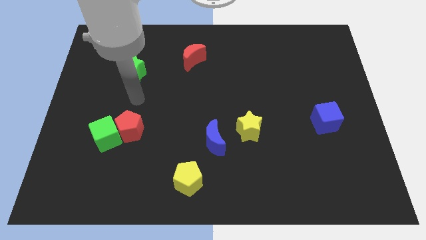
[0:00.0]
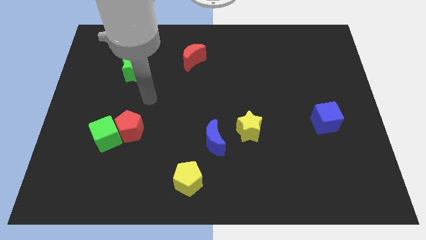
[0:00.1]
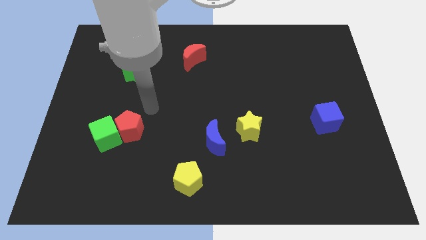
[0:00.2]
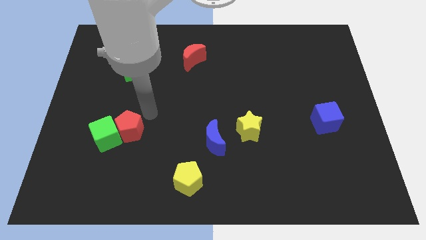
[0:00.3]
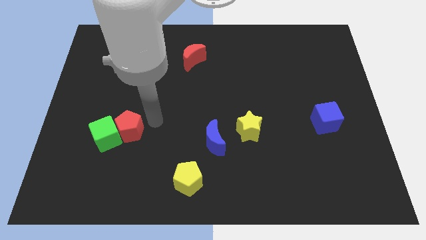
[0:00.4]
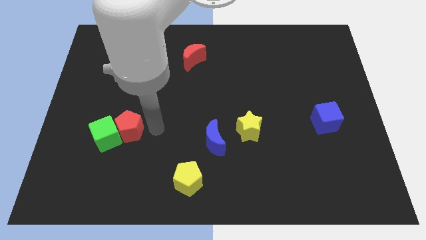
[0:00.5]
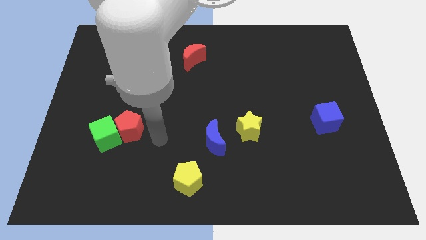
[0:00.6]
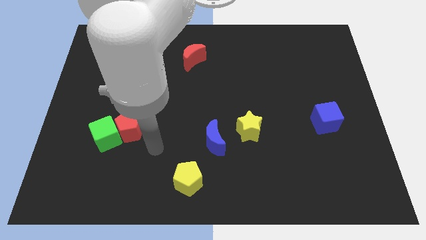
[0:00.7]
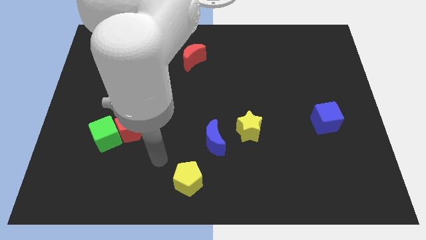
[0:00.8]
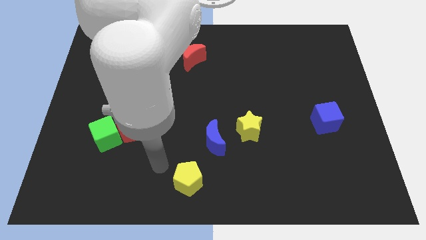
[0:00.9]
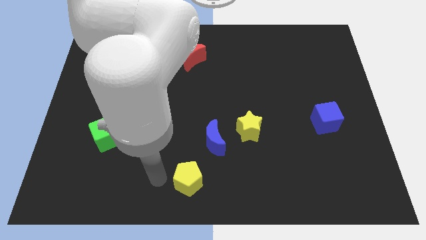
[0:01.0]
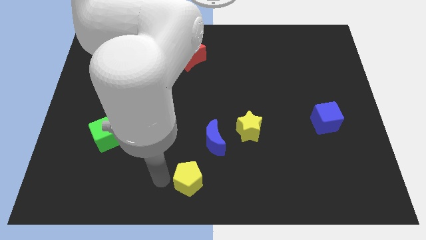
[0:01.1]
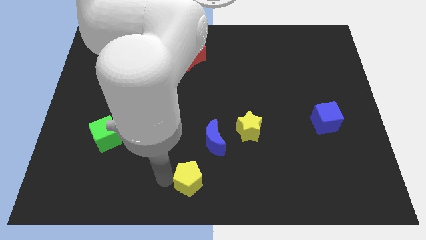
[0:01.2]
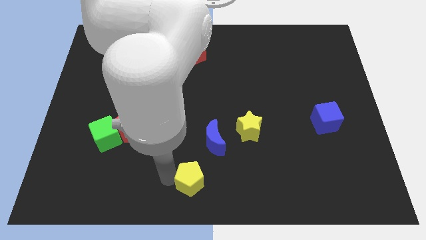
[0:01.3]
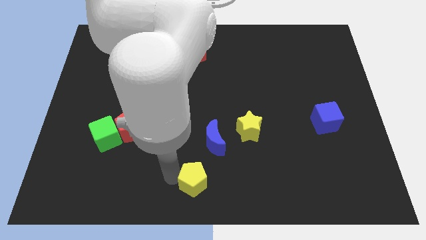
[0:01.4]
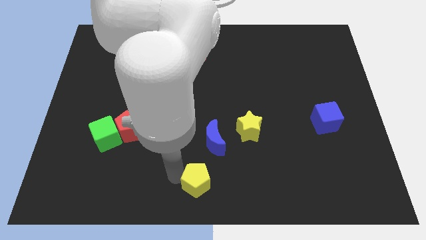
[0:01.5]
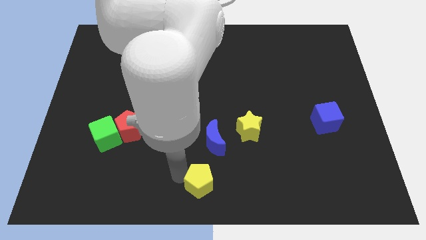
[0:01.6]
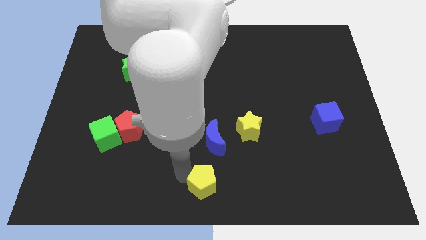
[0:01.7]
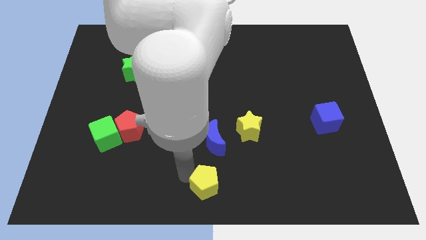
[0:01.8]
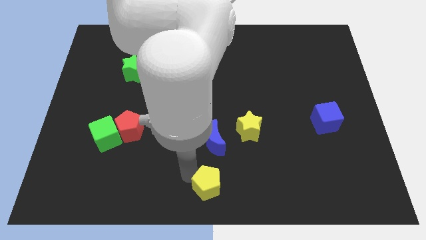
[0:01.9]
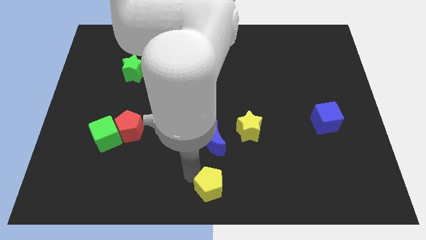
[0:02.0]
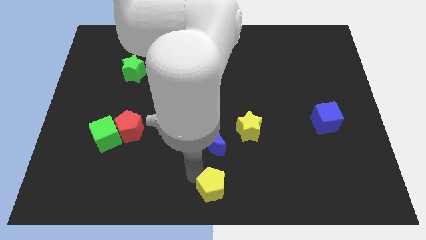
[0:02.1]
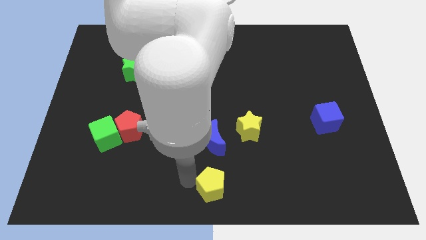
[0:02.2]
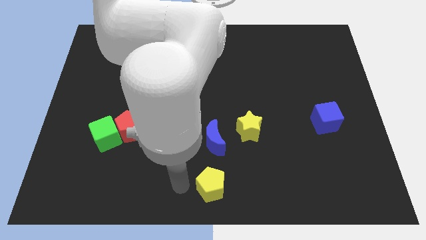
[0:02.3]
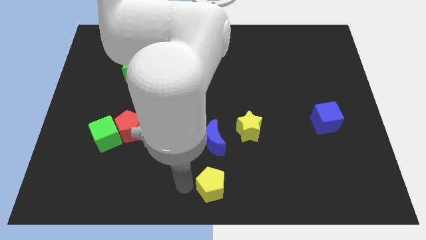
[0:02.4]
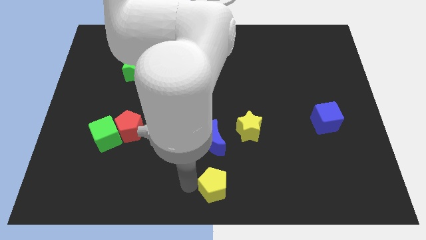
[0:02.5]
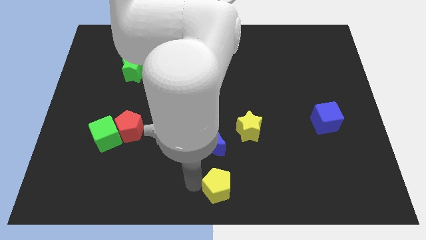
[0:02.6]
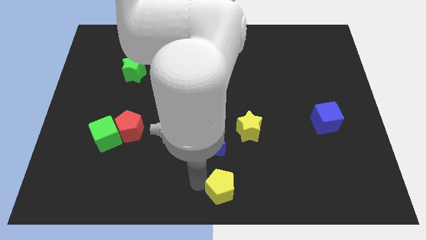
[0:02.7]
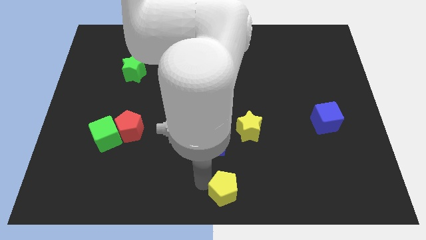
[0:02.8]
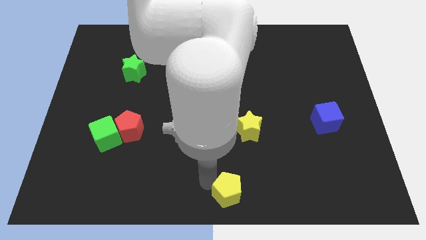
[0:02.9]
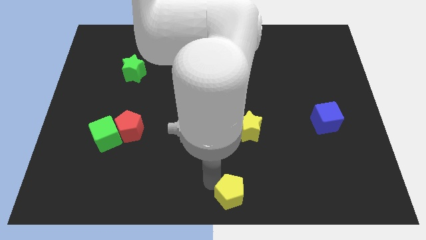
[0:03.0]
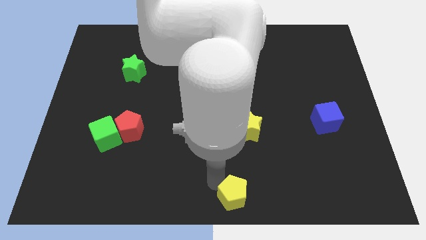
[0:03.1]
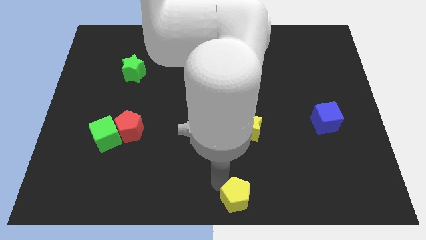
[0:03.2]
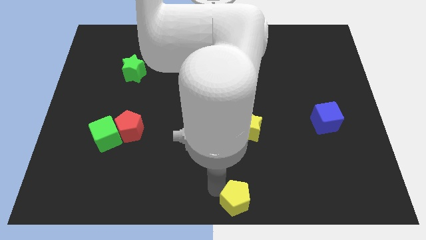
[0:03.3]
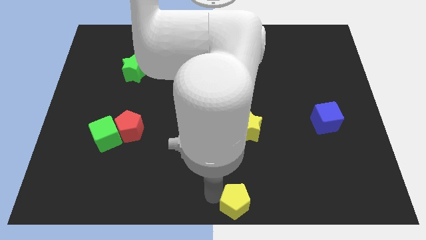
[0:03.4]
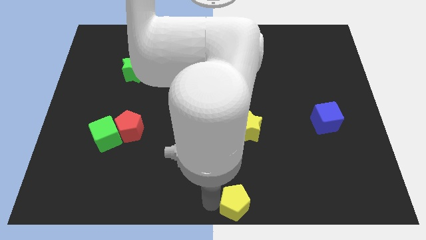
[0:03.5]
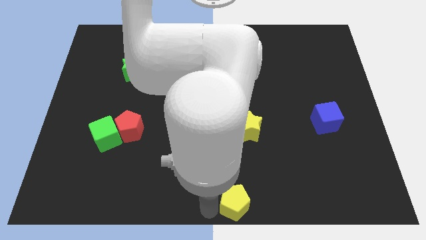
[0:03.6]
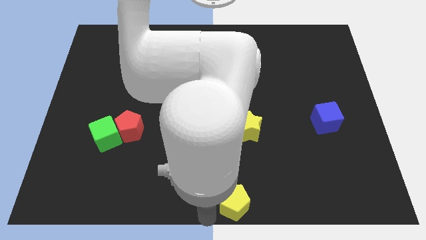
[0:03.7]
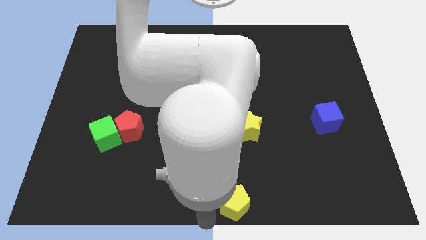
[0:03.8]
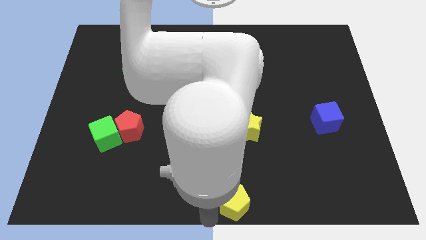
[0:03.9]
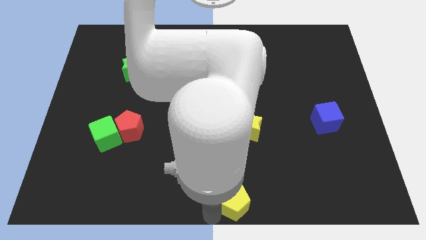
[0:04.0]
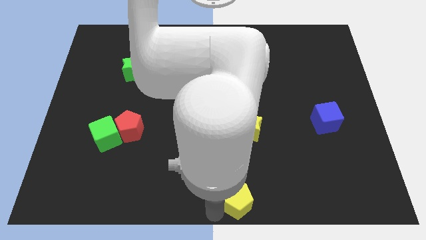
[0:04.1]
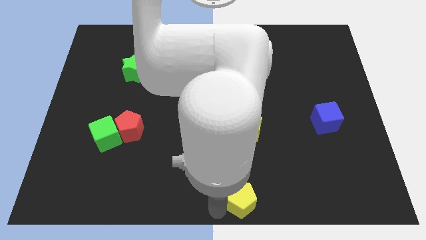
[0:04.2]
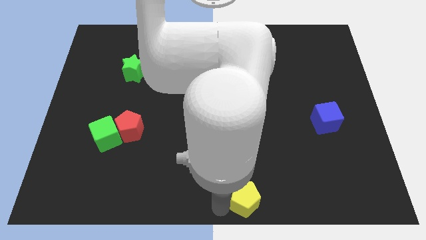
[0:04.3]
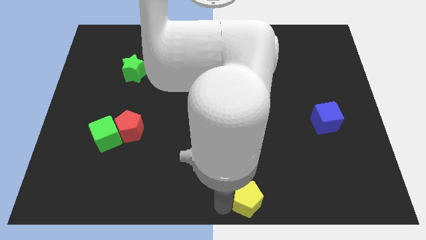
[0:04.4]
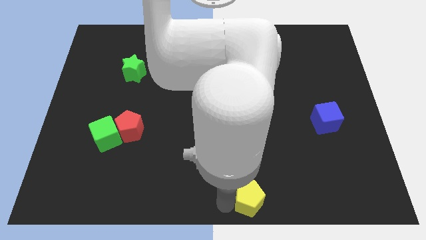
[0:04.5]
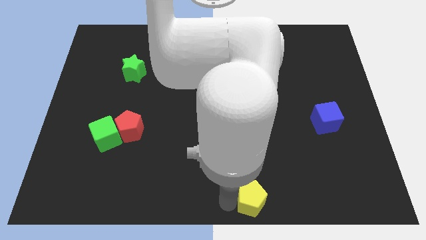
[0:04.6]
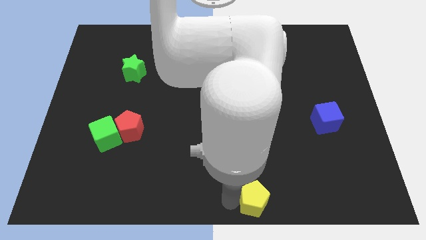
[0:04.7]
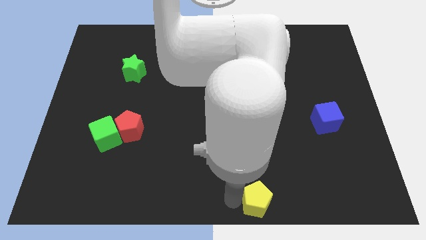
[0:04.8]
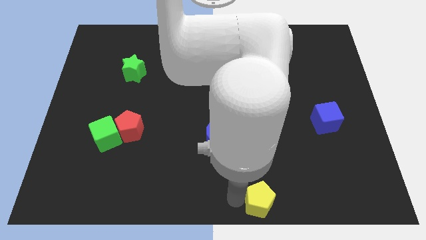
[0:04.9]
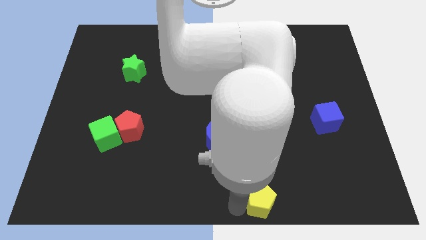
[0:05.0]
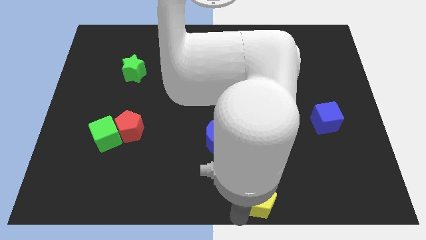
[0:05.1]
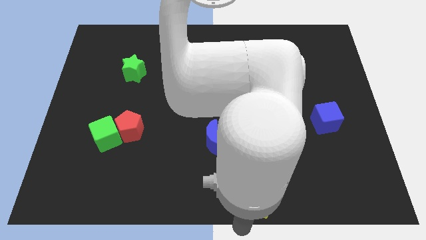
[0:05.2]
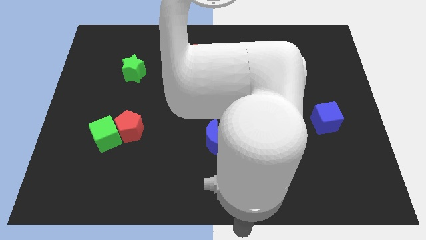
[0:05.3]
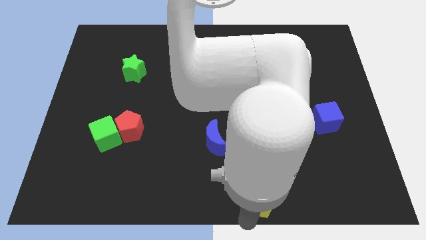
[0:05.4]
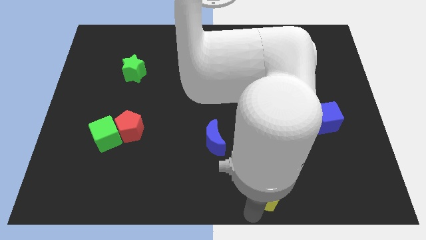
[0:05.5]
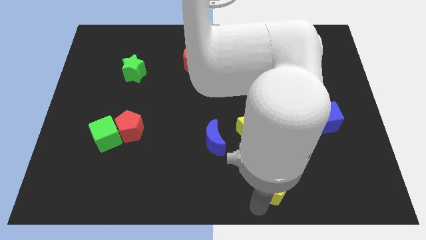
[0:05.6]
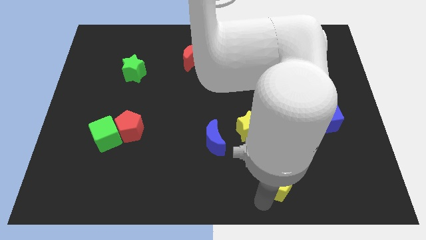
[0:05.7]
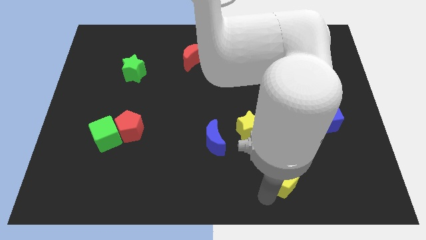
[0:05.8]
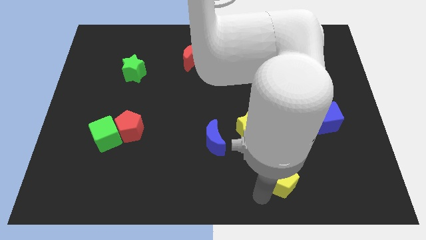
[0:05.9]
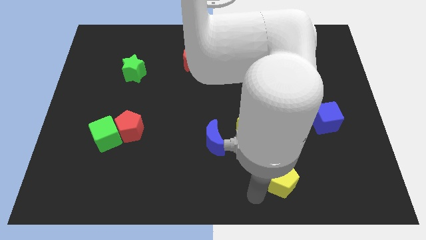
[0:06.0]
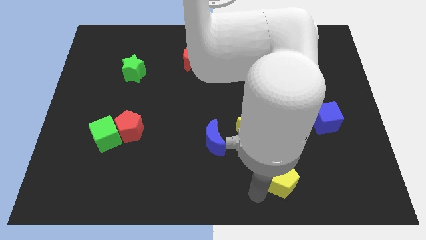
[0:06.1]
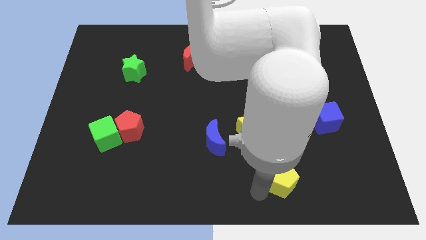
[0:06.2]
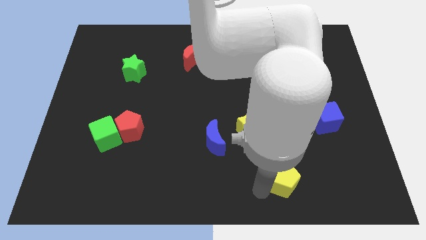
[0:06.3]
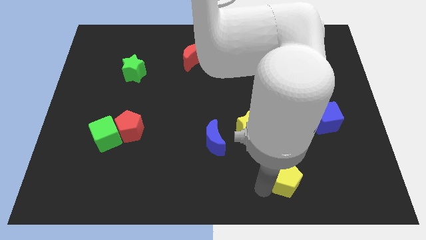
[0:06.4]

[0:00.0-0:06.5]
push the yellow pentagon to the right

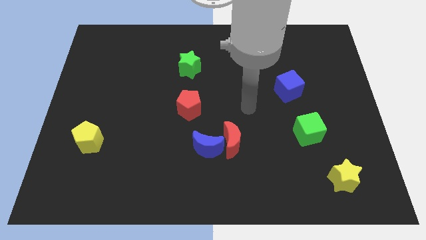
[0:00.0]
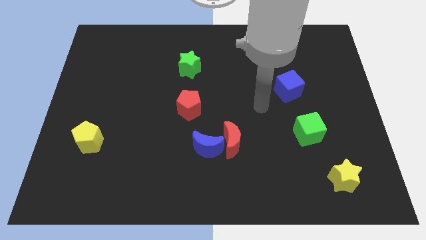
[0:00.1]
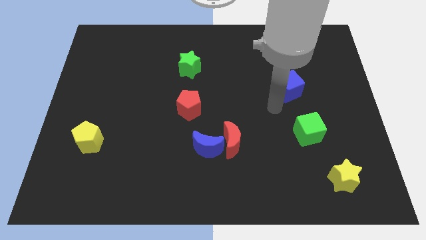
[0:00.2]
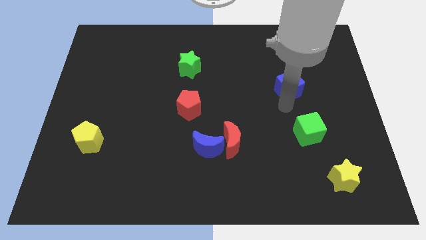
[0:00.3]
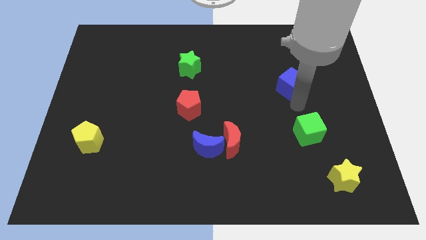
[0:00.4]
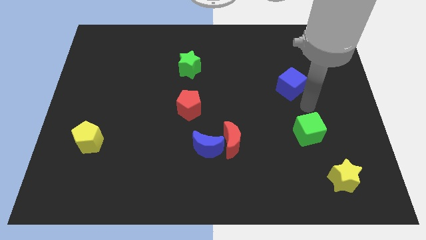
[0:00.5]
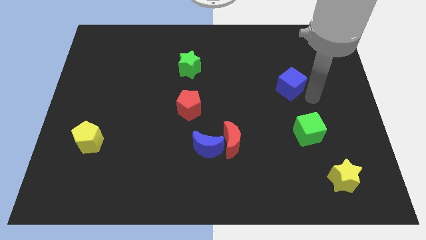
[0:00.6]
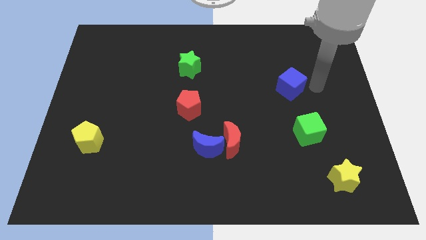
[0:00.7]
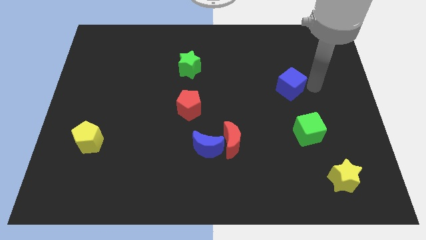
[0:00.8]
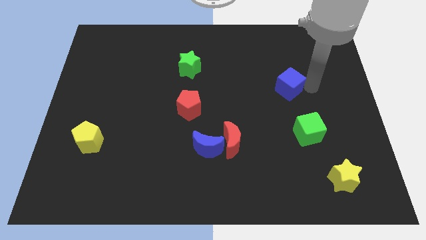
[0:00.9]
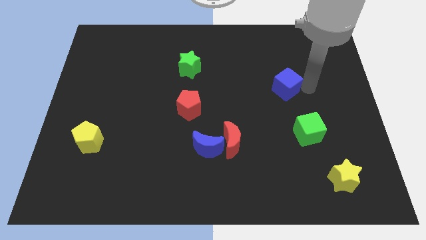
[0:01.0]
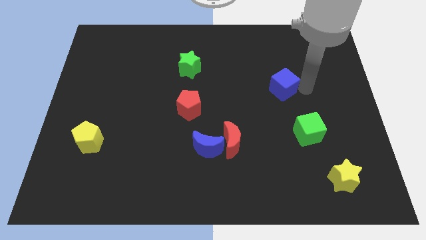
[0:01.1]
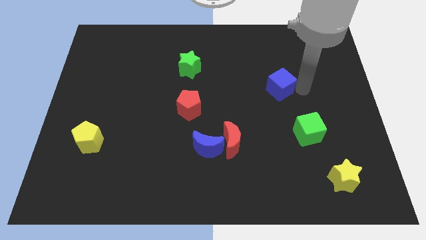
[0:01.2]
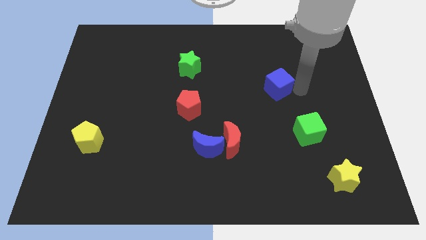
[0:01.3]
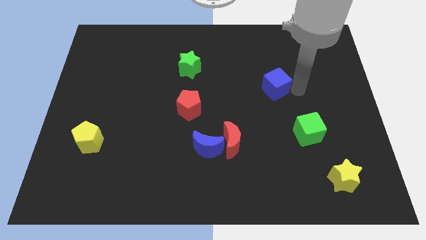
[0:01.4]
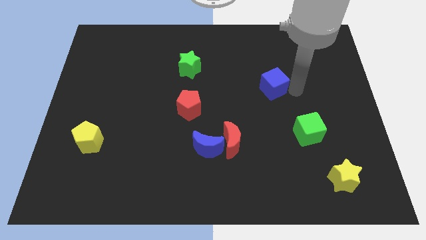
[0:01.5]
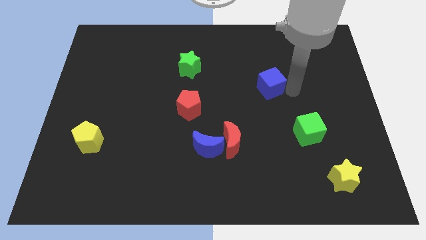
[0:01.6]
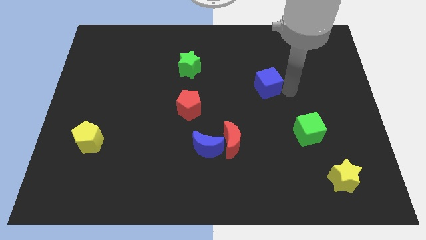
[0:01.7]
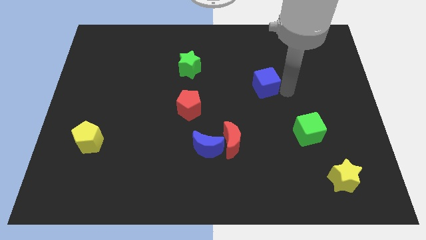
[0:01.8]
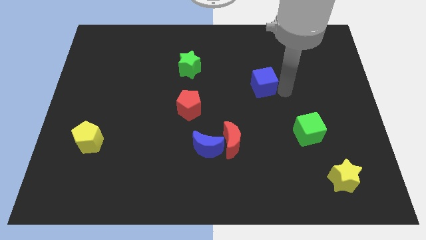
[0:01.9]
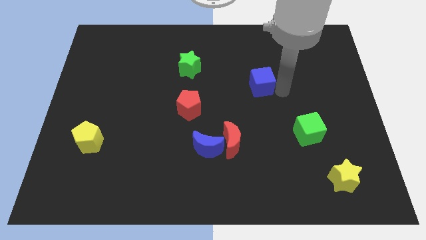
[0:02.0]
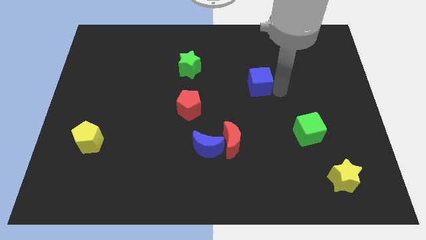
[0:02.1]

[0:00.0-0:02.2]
move the blue cube left somewhat
